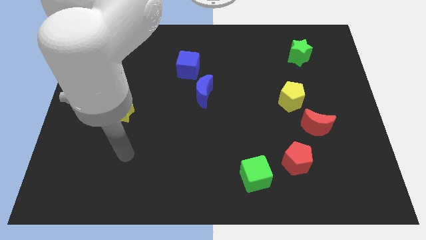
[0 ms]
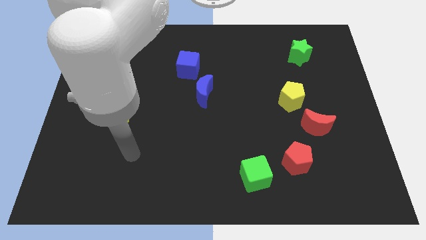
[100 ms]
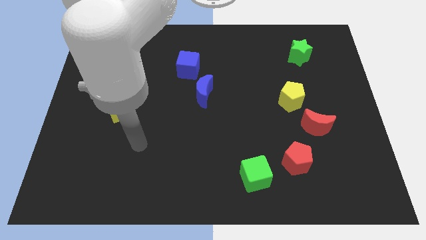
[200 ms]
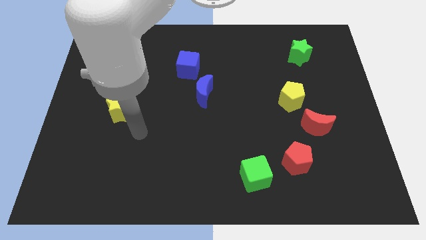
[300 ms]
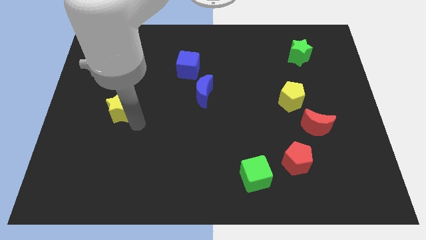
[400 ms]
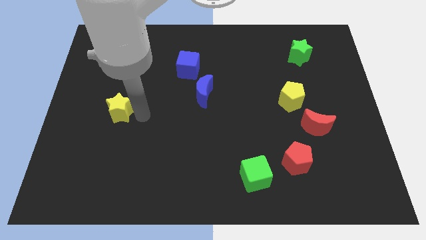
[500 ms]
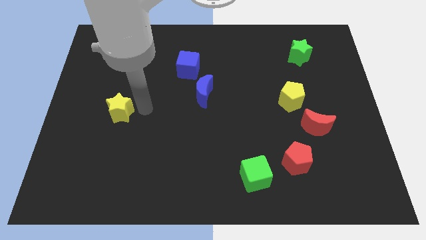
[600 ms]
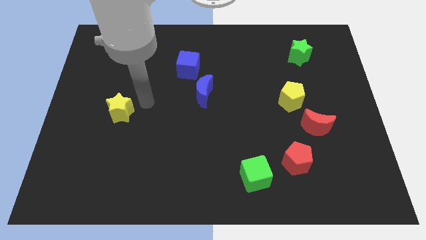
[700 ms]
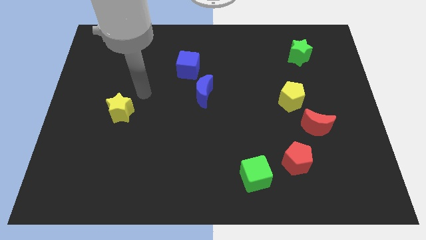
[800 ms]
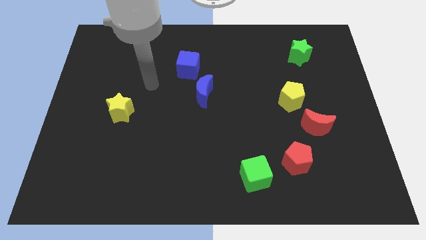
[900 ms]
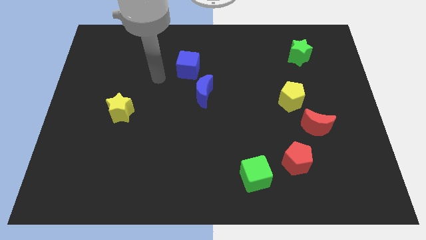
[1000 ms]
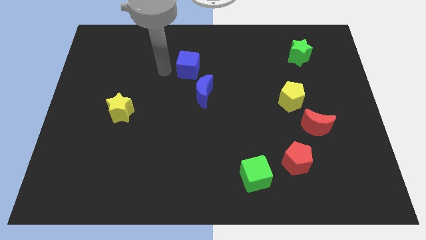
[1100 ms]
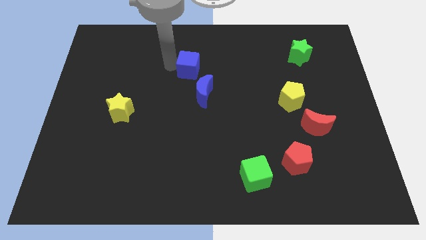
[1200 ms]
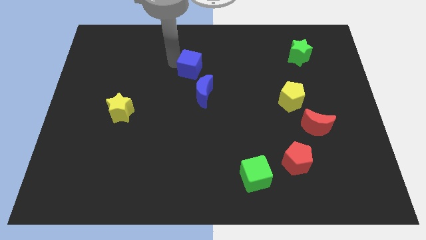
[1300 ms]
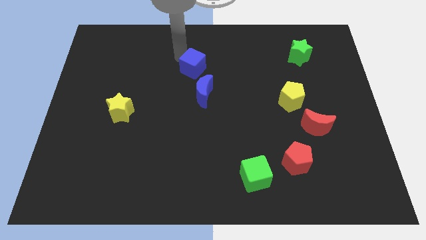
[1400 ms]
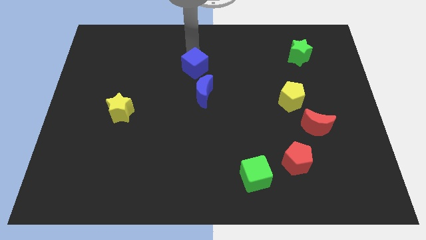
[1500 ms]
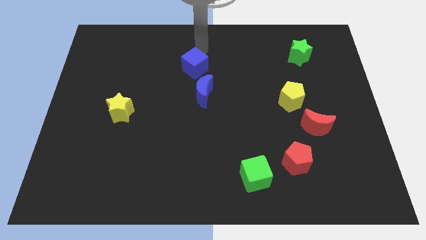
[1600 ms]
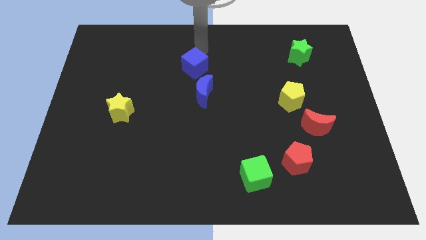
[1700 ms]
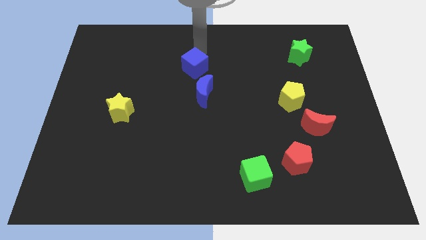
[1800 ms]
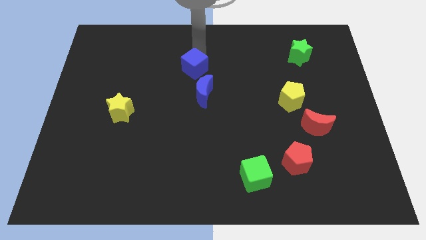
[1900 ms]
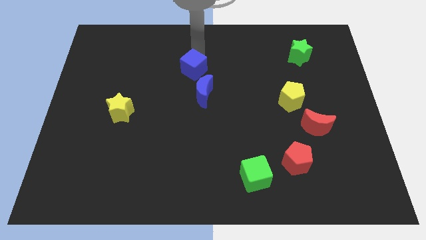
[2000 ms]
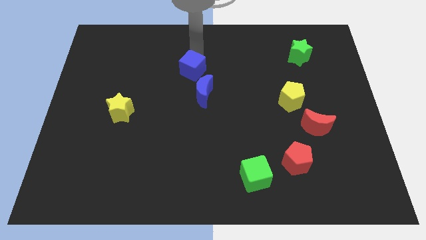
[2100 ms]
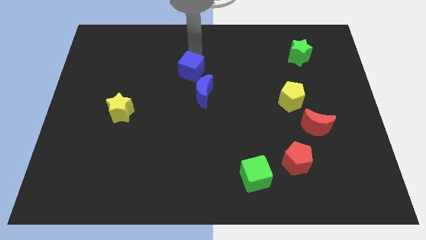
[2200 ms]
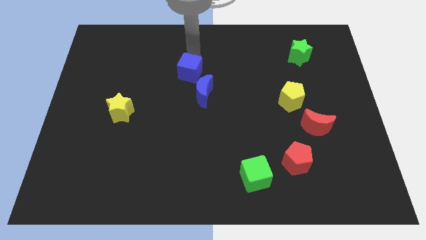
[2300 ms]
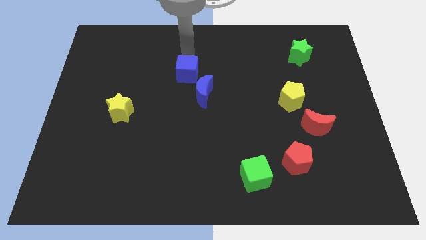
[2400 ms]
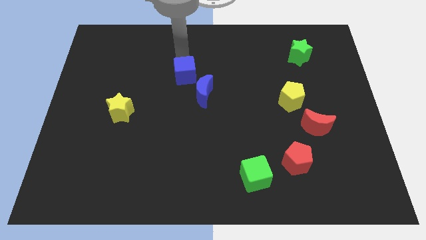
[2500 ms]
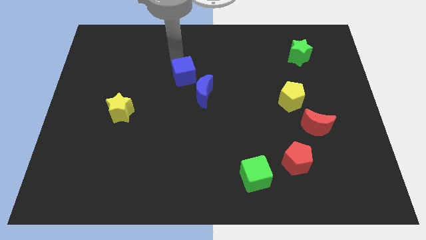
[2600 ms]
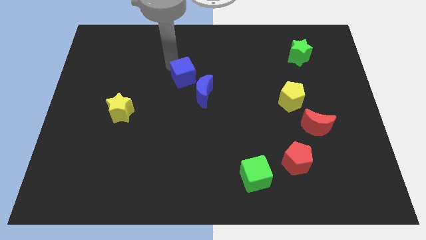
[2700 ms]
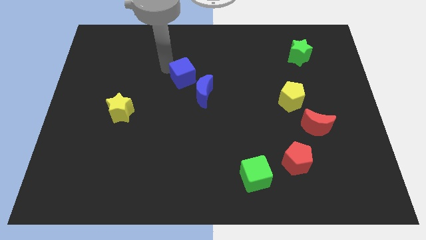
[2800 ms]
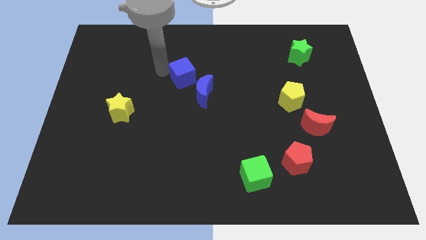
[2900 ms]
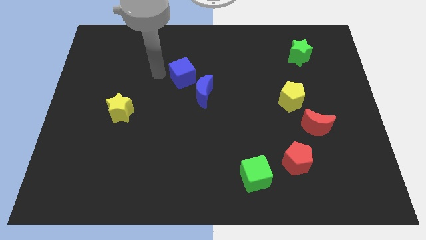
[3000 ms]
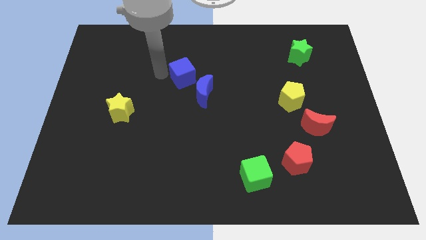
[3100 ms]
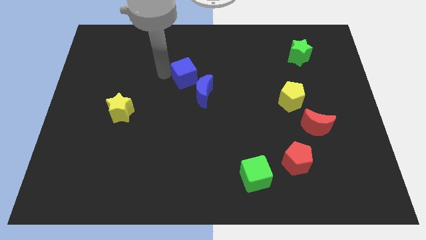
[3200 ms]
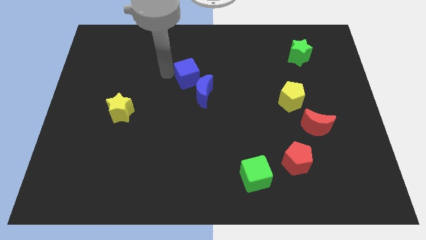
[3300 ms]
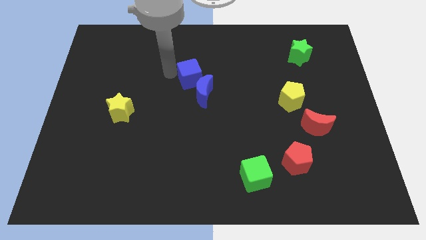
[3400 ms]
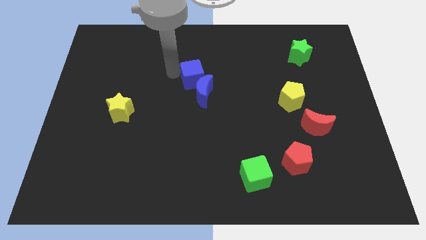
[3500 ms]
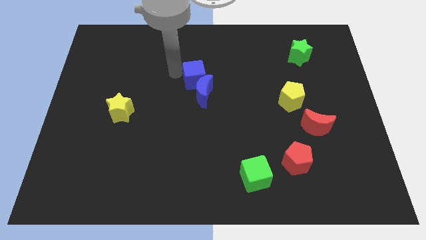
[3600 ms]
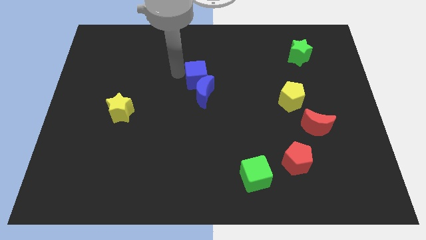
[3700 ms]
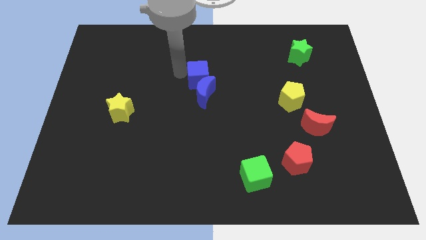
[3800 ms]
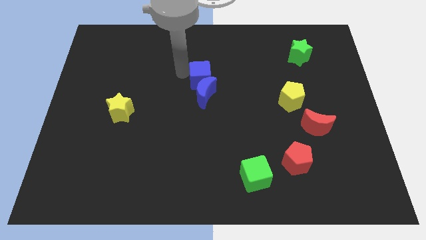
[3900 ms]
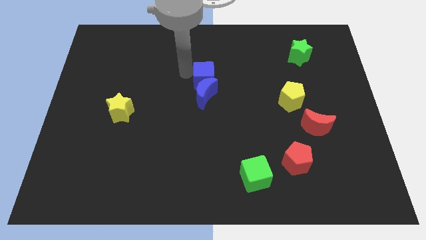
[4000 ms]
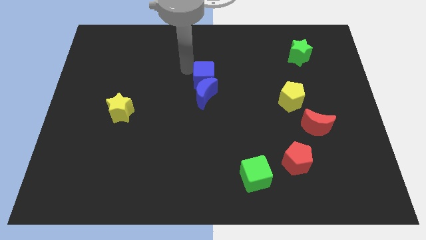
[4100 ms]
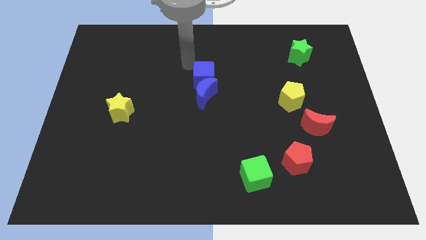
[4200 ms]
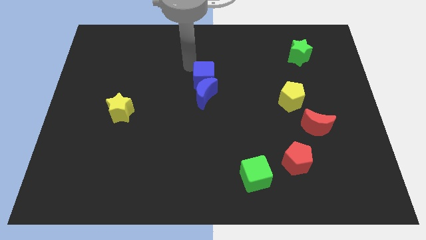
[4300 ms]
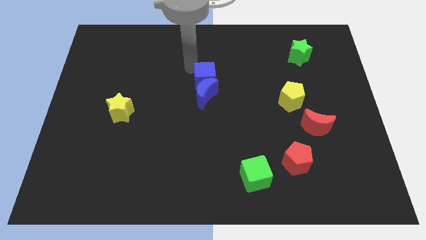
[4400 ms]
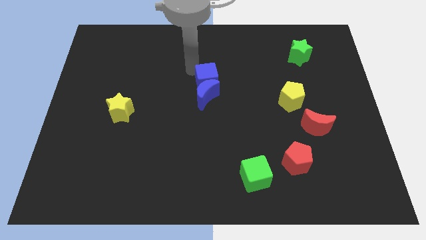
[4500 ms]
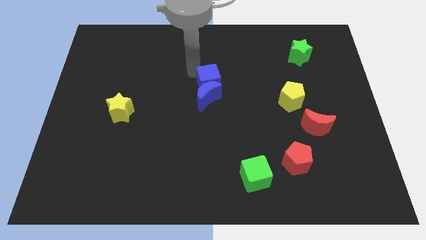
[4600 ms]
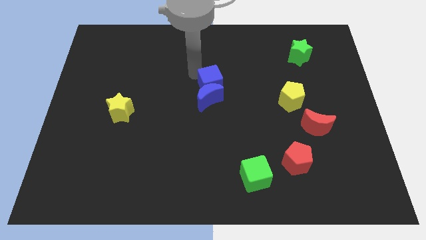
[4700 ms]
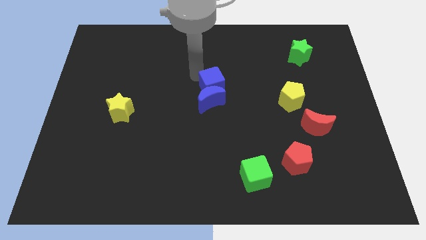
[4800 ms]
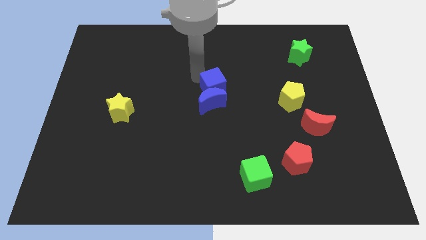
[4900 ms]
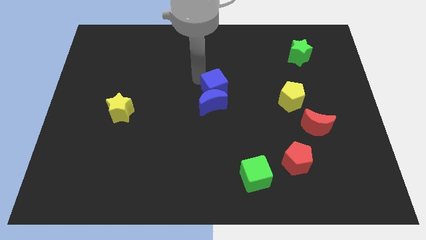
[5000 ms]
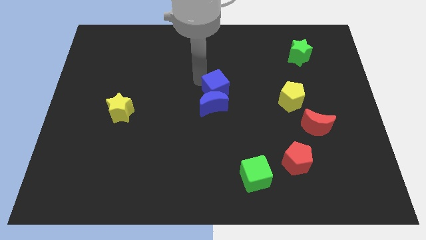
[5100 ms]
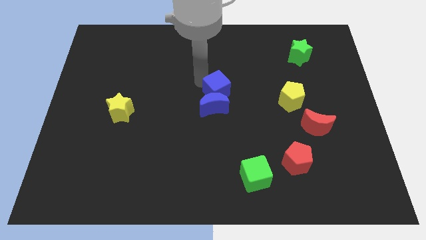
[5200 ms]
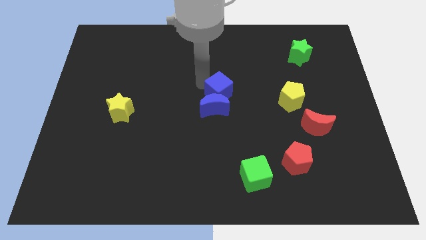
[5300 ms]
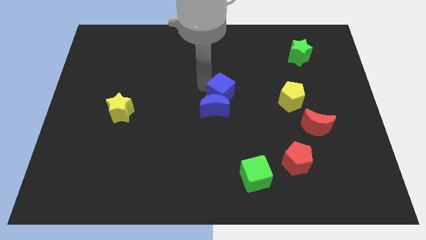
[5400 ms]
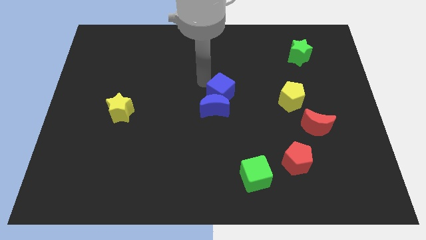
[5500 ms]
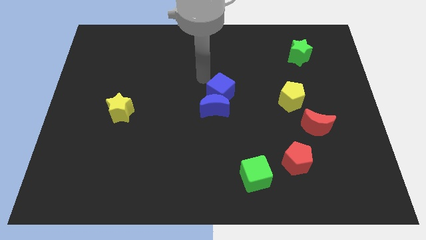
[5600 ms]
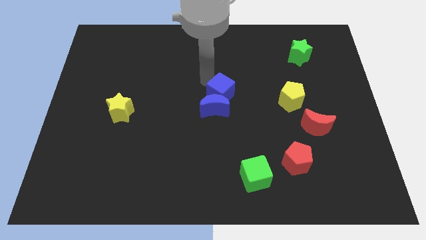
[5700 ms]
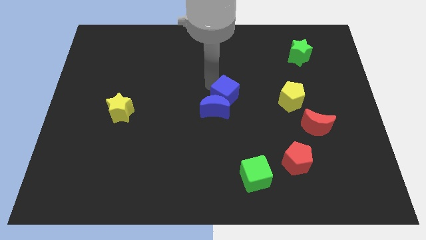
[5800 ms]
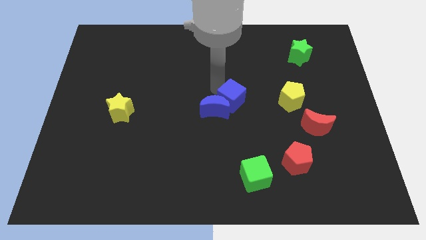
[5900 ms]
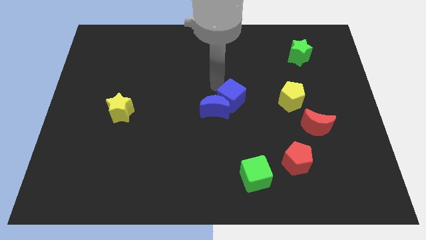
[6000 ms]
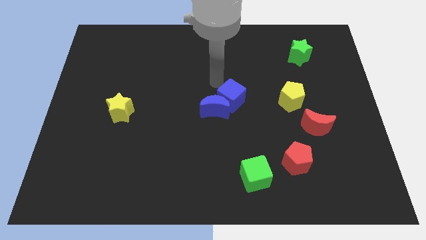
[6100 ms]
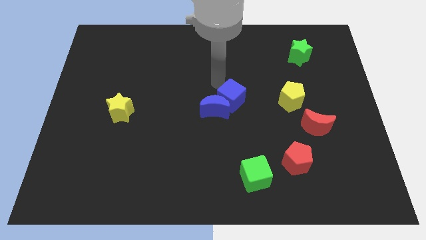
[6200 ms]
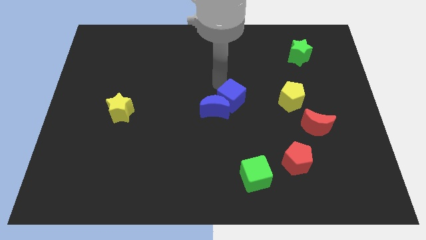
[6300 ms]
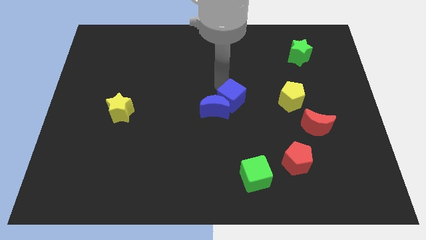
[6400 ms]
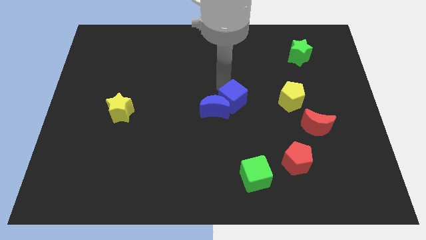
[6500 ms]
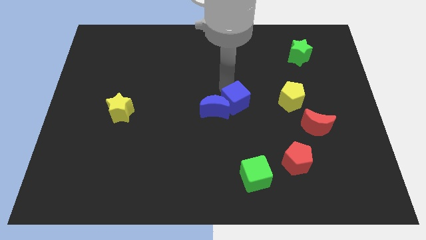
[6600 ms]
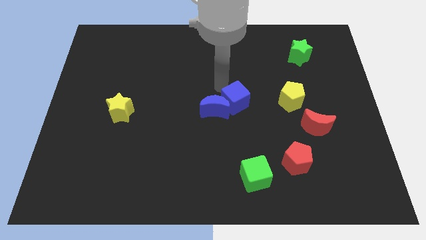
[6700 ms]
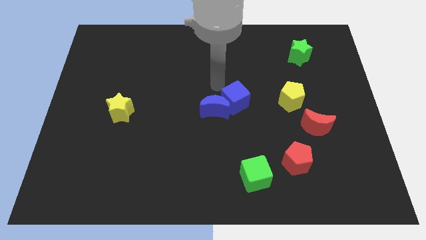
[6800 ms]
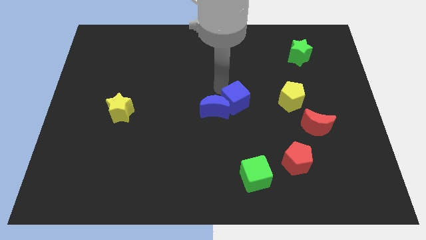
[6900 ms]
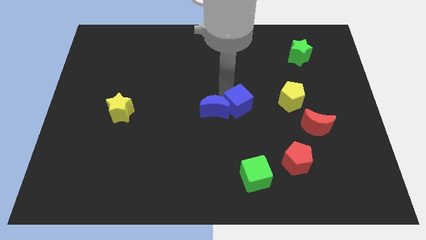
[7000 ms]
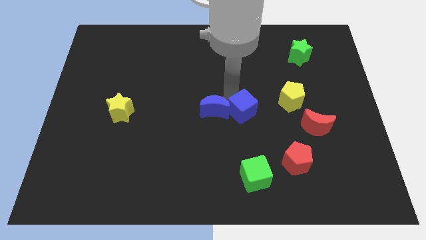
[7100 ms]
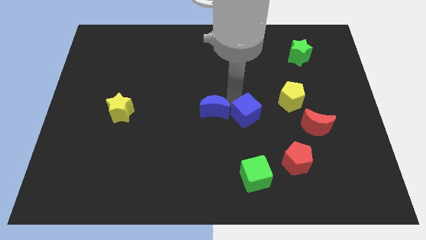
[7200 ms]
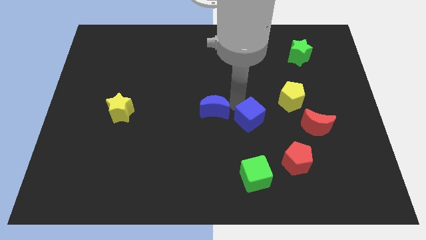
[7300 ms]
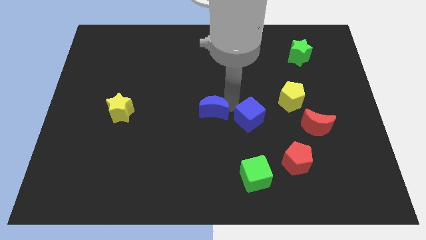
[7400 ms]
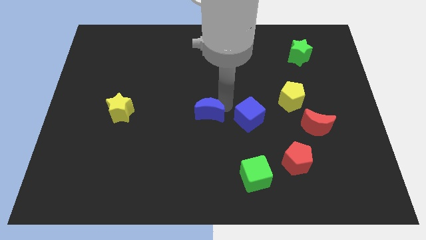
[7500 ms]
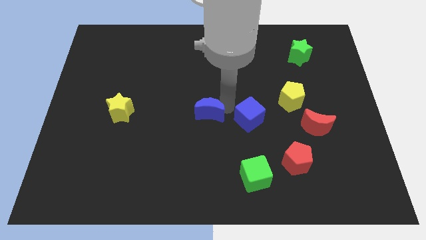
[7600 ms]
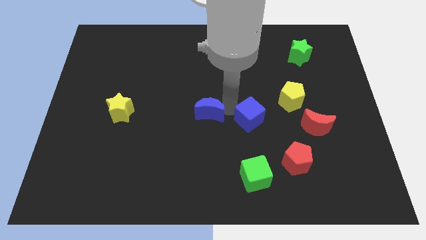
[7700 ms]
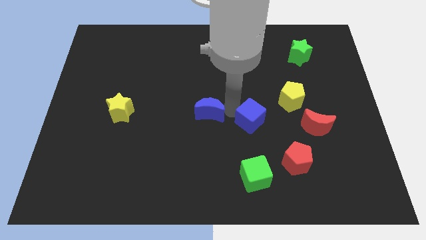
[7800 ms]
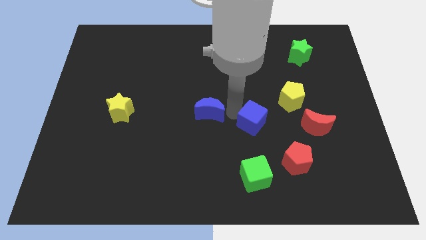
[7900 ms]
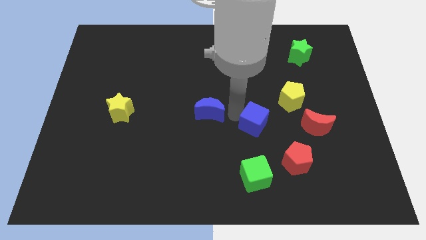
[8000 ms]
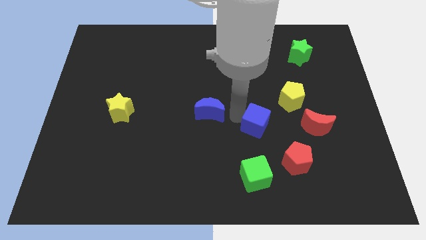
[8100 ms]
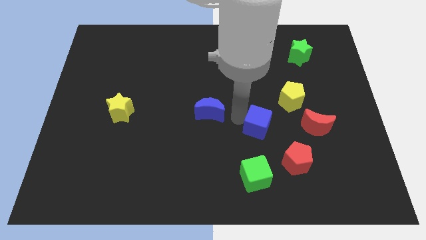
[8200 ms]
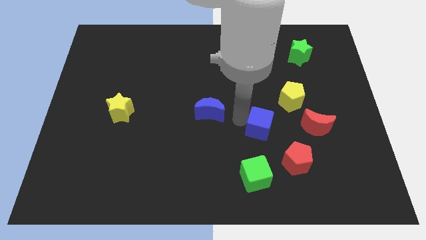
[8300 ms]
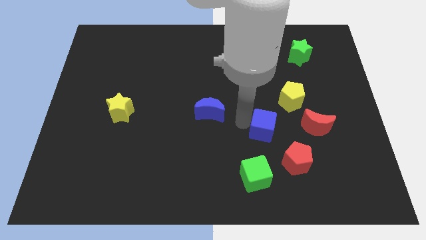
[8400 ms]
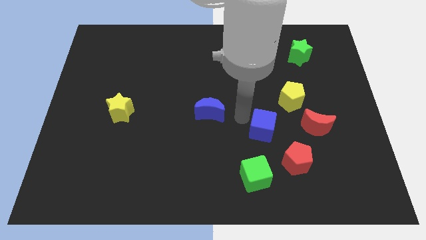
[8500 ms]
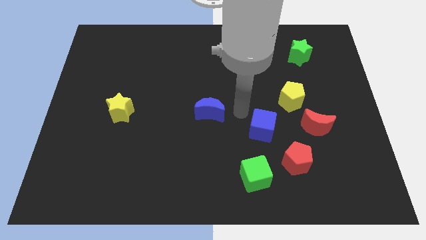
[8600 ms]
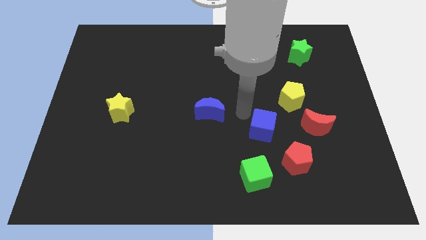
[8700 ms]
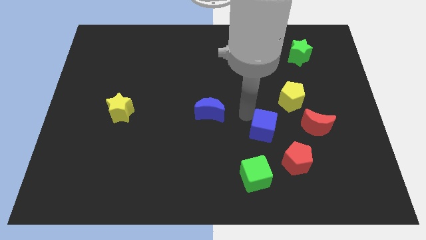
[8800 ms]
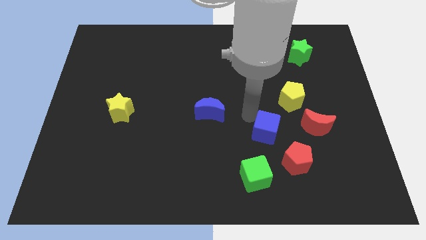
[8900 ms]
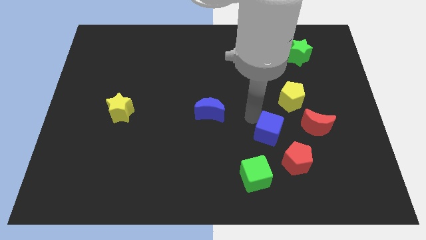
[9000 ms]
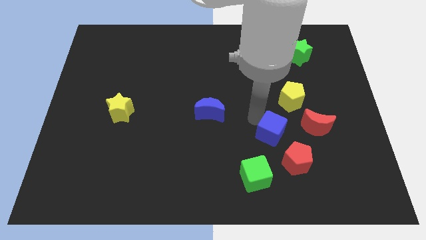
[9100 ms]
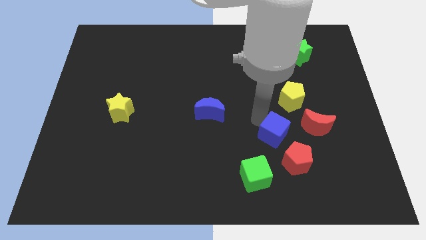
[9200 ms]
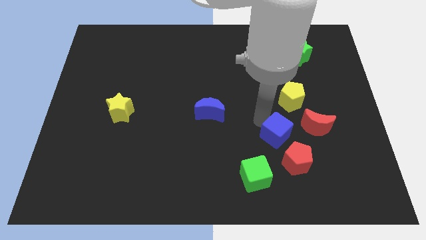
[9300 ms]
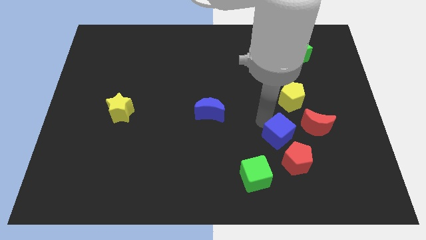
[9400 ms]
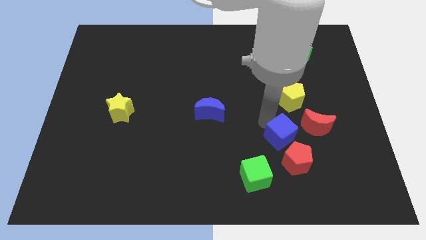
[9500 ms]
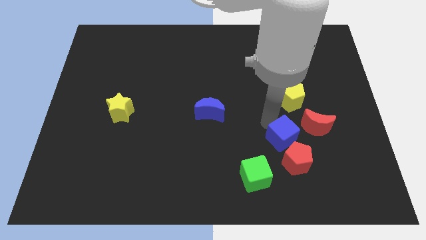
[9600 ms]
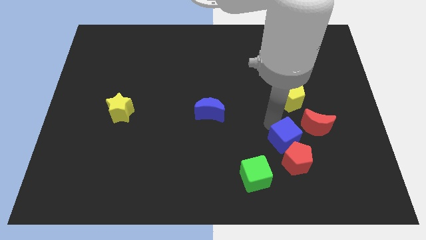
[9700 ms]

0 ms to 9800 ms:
slide the blue cube next to the red pentagon
